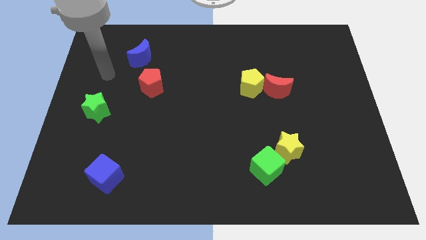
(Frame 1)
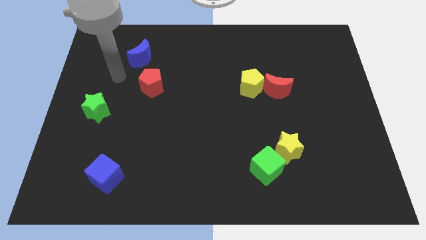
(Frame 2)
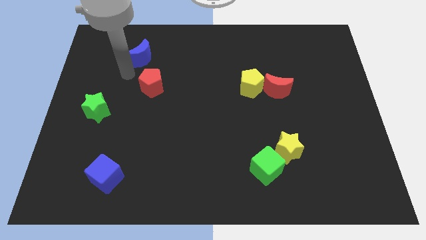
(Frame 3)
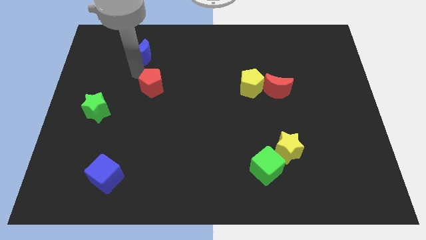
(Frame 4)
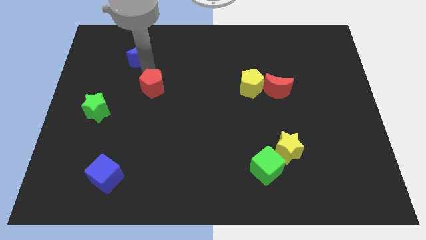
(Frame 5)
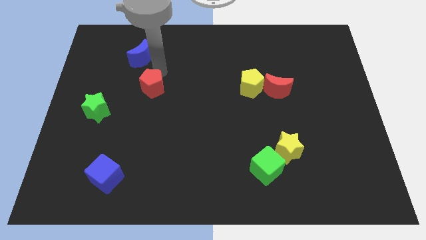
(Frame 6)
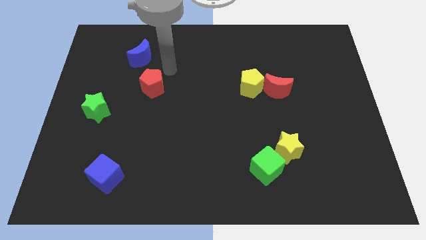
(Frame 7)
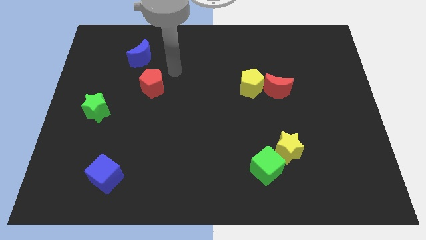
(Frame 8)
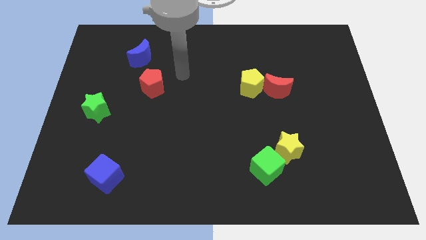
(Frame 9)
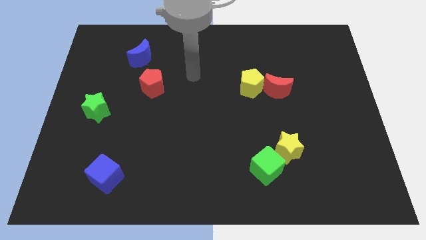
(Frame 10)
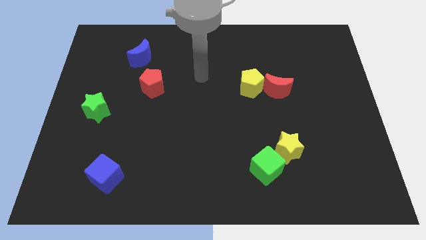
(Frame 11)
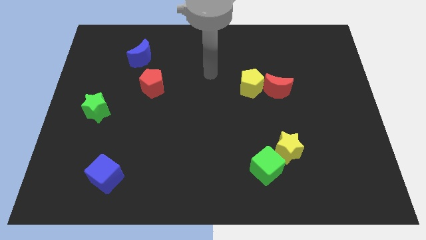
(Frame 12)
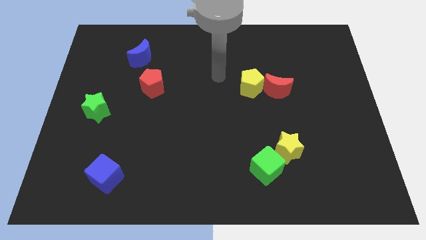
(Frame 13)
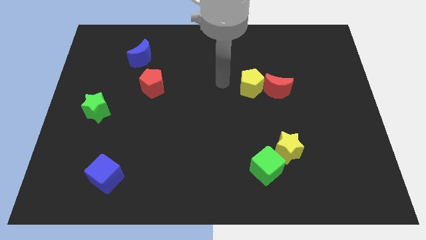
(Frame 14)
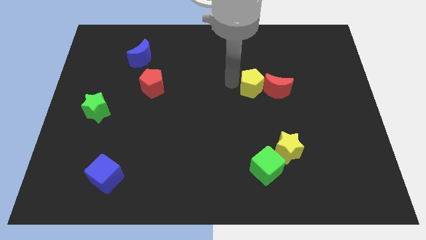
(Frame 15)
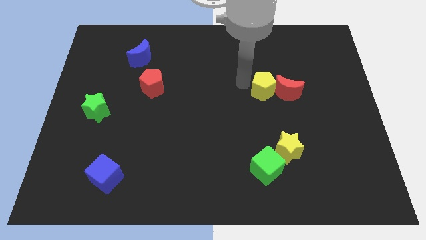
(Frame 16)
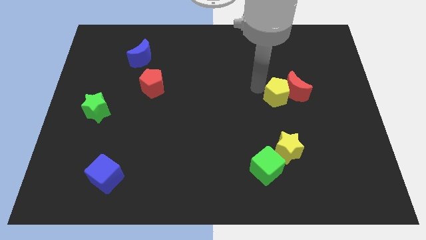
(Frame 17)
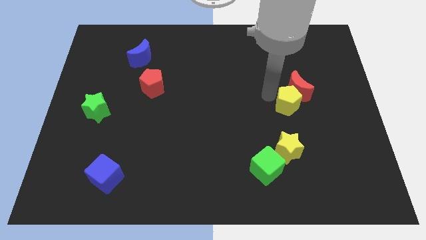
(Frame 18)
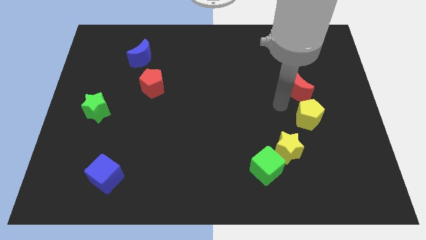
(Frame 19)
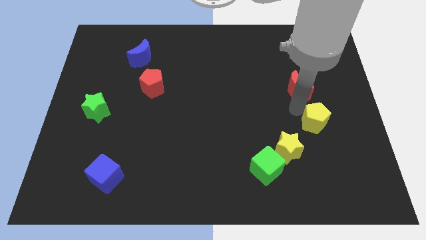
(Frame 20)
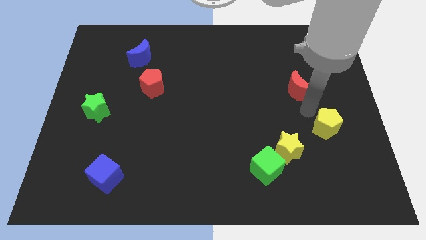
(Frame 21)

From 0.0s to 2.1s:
pull the red moon apart from the yellow pentagon

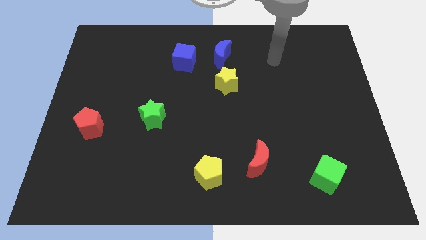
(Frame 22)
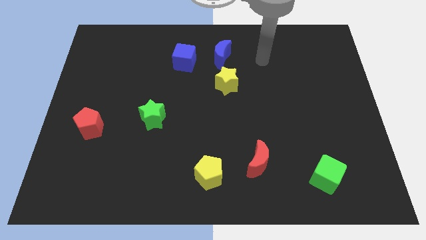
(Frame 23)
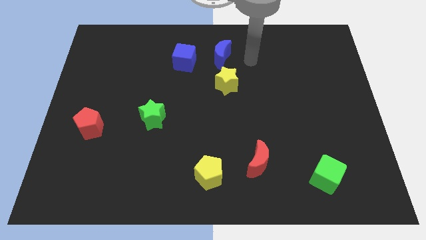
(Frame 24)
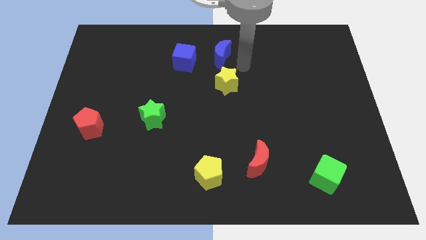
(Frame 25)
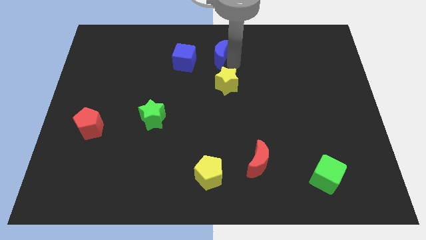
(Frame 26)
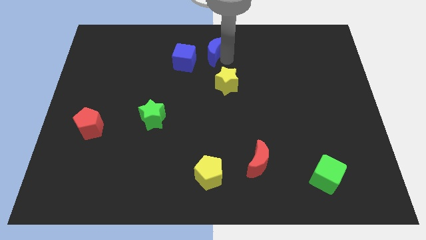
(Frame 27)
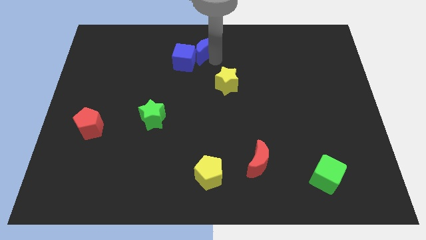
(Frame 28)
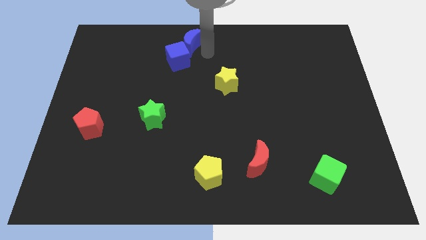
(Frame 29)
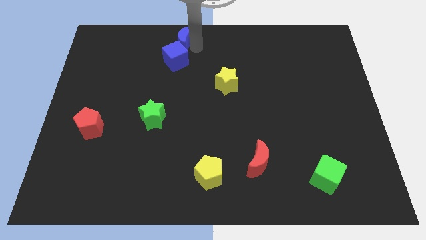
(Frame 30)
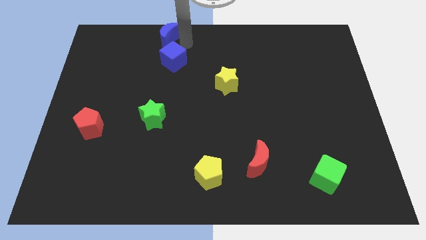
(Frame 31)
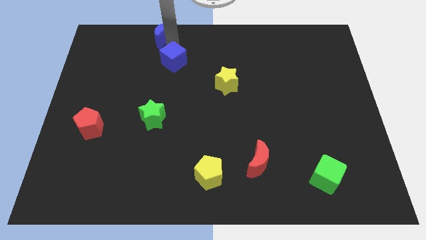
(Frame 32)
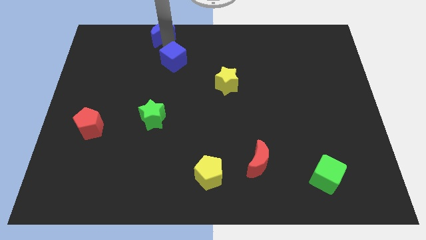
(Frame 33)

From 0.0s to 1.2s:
separate the blue cube from the blue moon

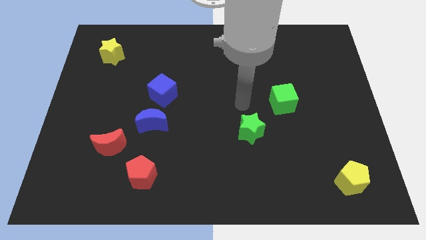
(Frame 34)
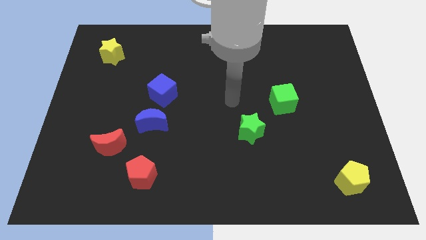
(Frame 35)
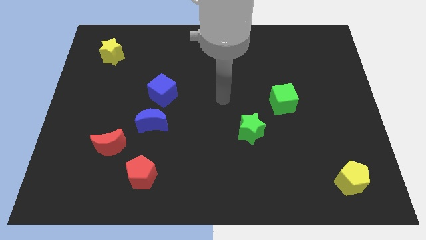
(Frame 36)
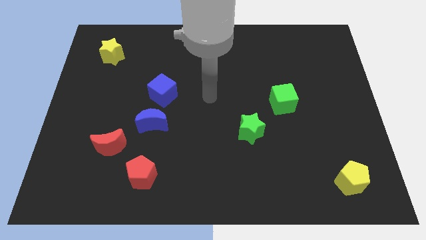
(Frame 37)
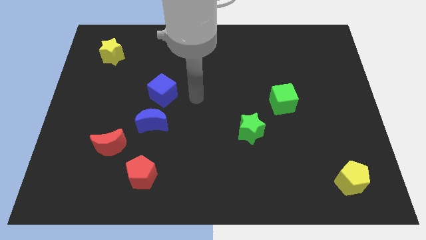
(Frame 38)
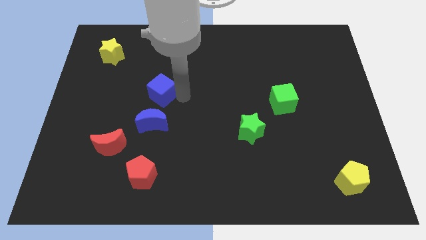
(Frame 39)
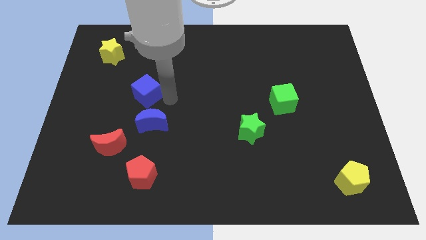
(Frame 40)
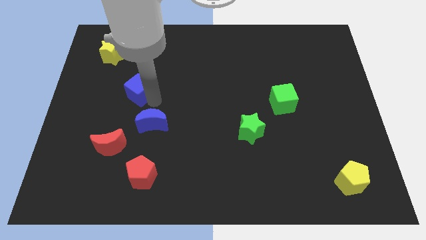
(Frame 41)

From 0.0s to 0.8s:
pull the blue moon apart from the blue cube

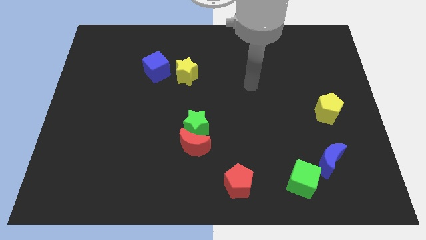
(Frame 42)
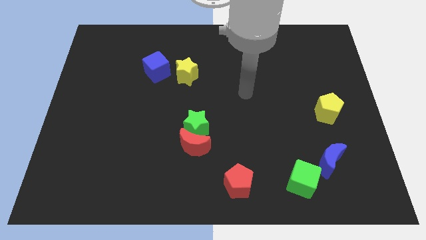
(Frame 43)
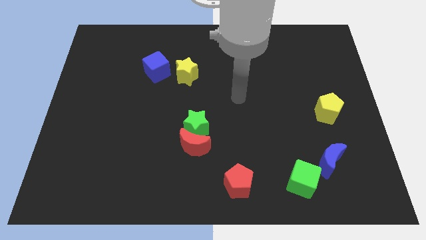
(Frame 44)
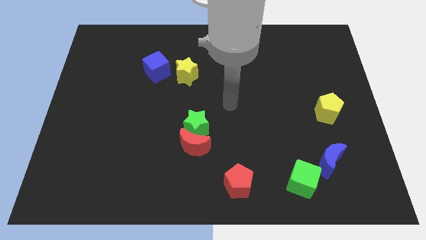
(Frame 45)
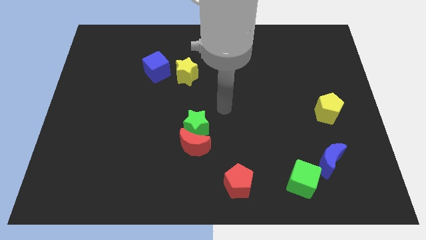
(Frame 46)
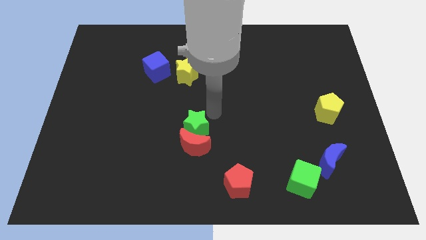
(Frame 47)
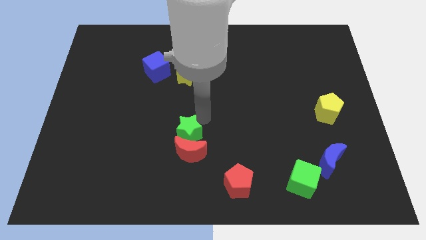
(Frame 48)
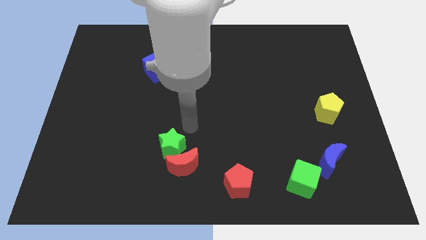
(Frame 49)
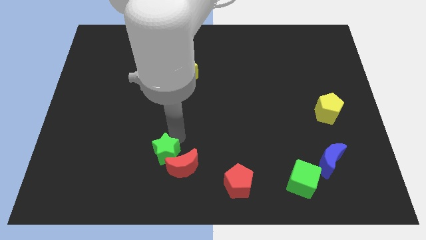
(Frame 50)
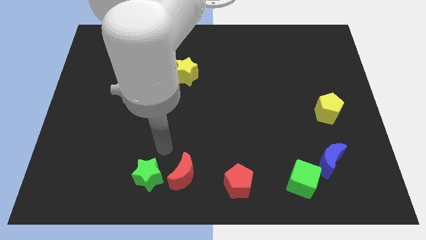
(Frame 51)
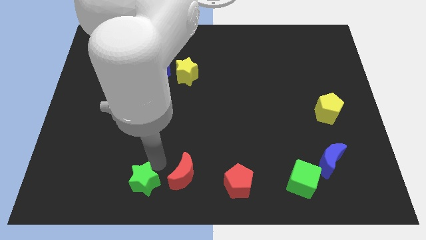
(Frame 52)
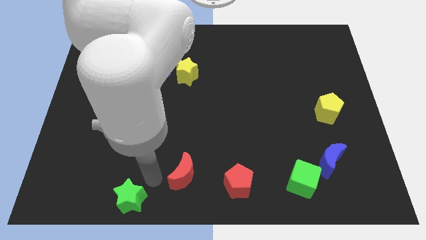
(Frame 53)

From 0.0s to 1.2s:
pull the red moon apart from the green star

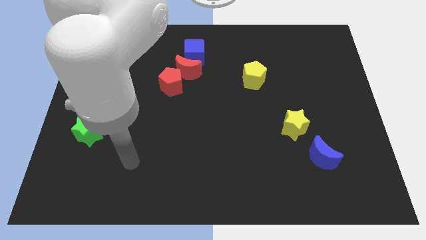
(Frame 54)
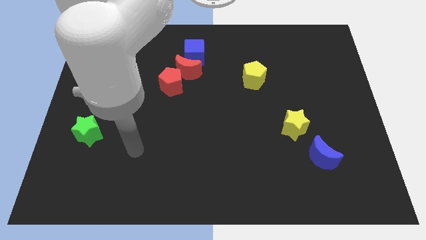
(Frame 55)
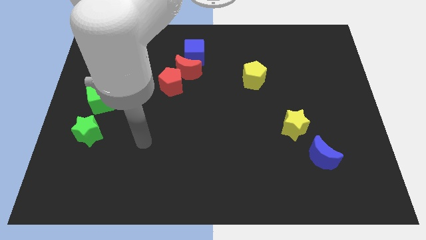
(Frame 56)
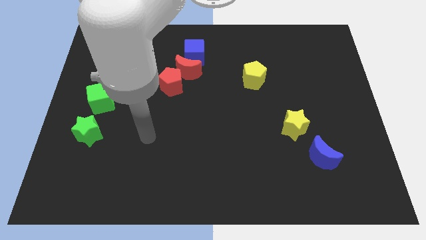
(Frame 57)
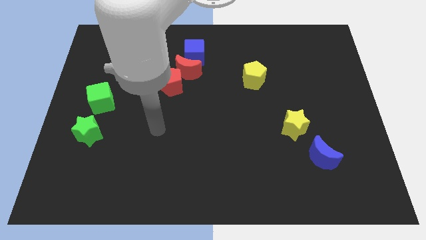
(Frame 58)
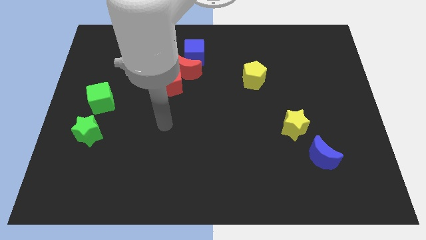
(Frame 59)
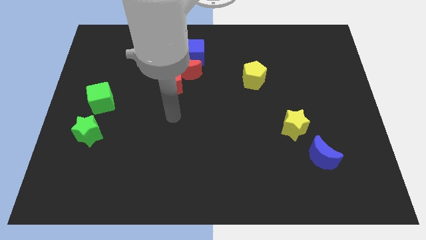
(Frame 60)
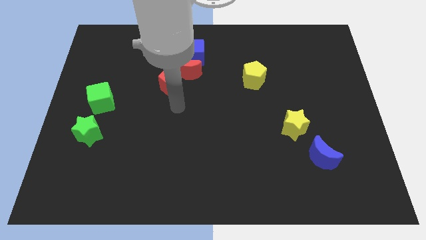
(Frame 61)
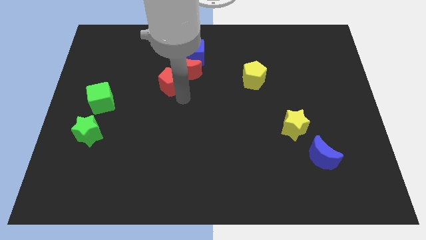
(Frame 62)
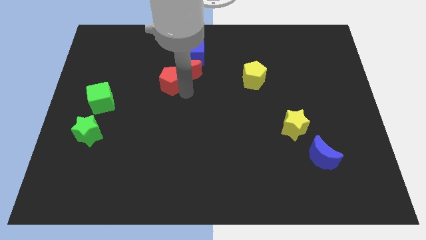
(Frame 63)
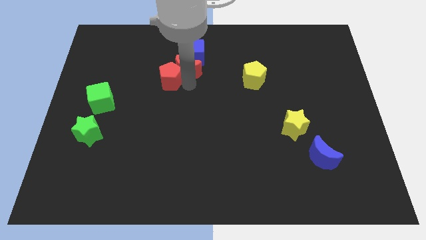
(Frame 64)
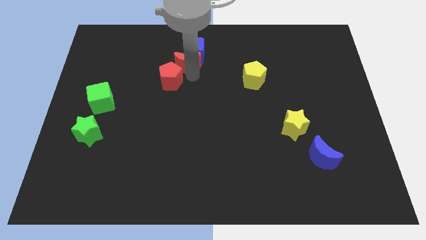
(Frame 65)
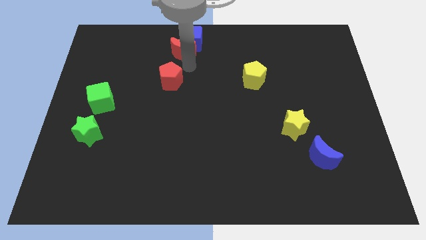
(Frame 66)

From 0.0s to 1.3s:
move the red pentagon away from the red moon

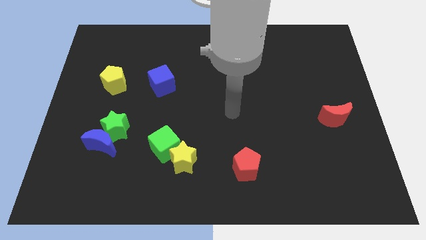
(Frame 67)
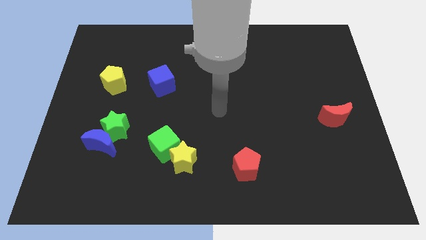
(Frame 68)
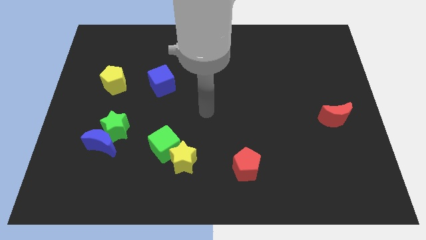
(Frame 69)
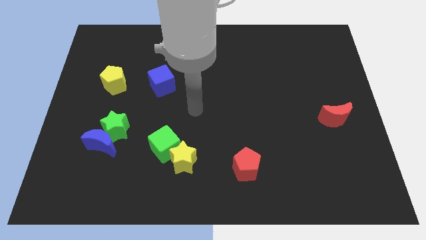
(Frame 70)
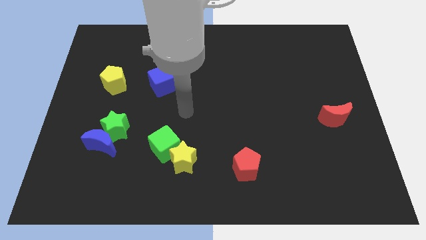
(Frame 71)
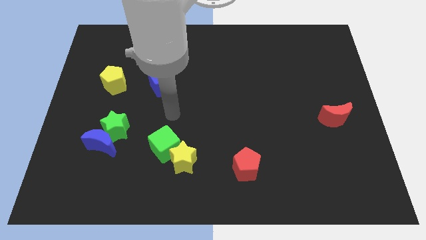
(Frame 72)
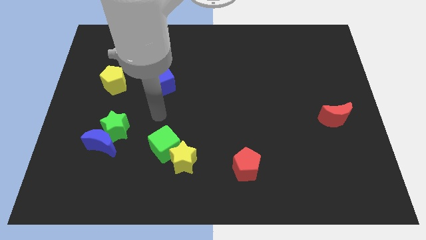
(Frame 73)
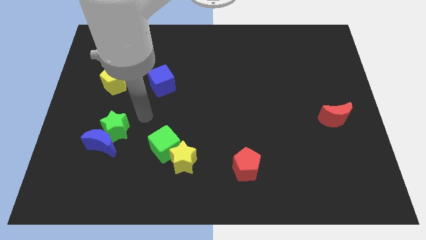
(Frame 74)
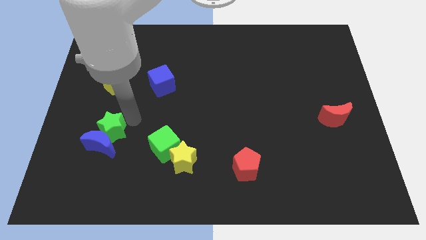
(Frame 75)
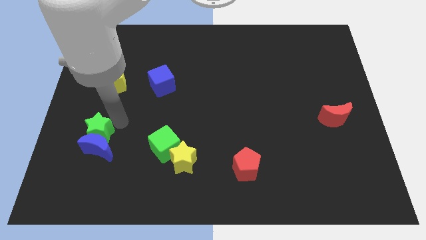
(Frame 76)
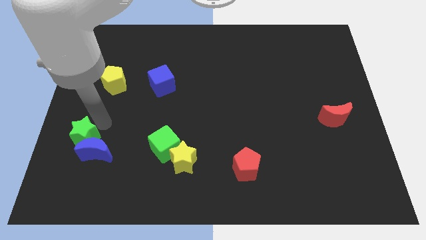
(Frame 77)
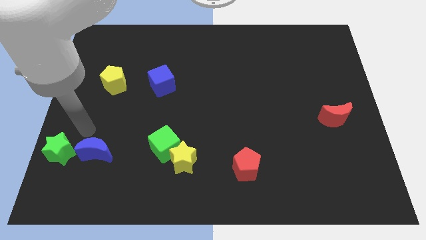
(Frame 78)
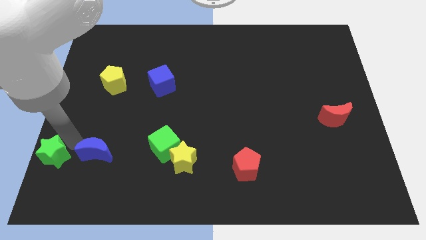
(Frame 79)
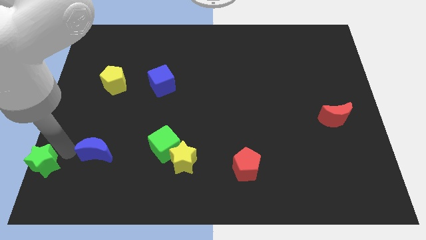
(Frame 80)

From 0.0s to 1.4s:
pull the blue moon apart from the green star

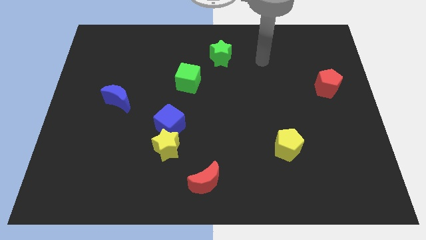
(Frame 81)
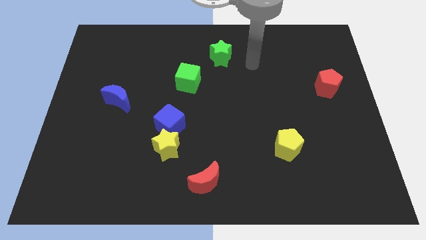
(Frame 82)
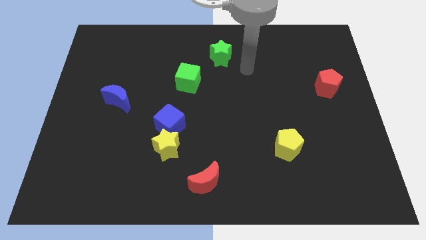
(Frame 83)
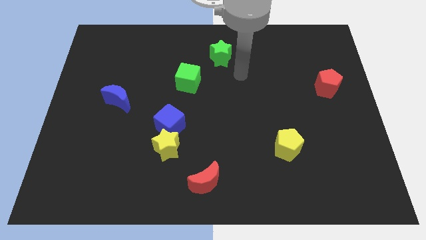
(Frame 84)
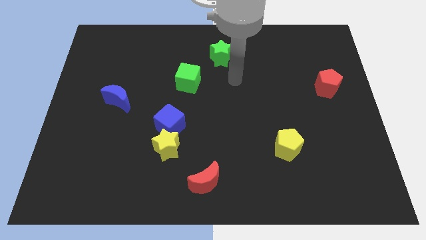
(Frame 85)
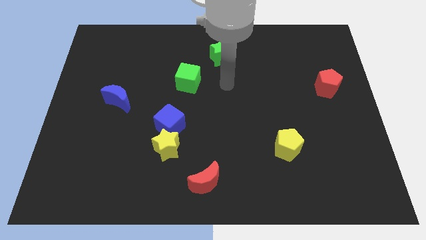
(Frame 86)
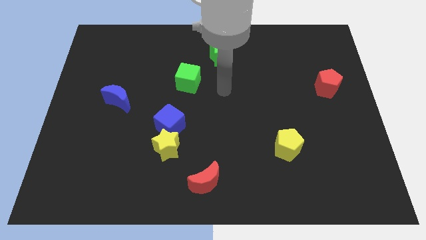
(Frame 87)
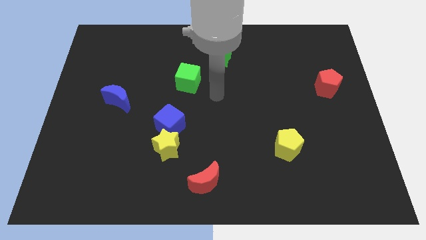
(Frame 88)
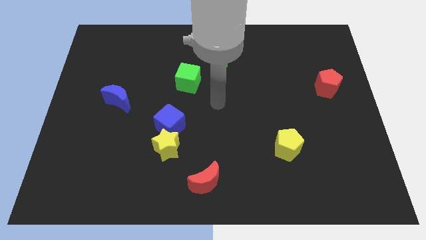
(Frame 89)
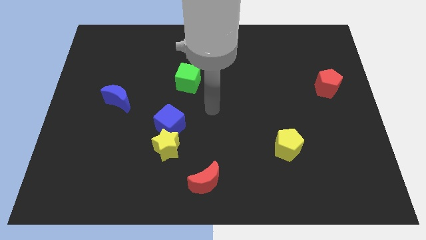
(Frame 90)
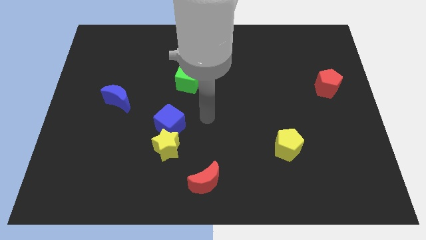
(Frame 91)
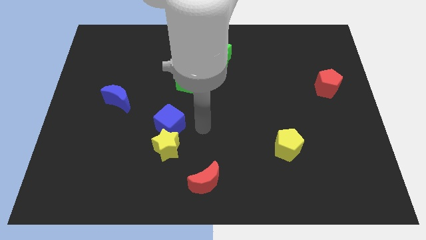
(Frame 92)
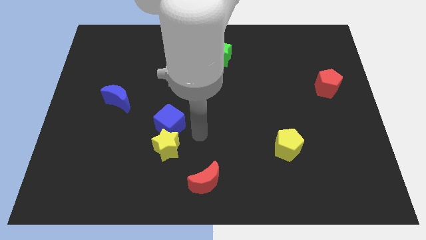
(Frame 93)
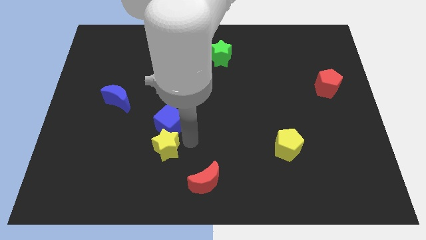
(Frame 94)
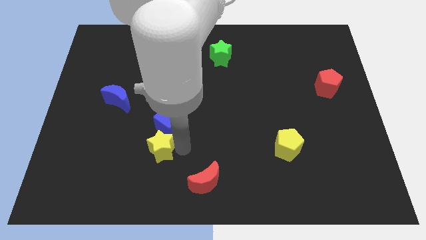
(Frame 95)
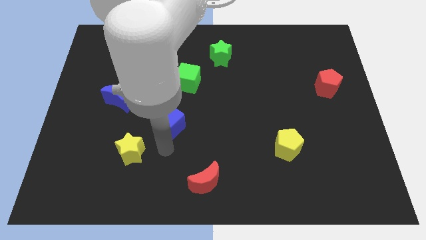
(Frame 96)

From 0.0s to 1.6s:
pull the blue cube apart from the yellow star
